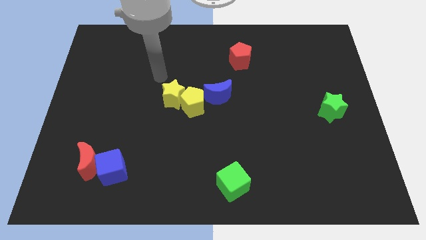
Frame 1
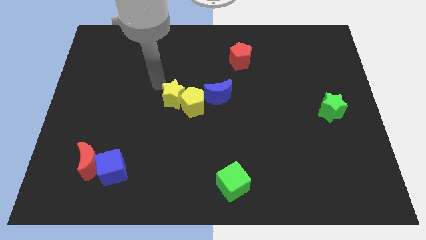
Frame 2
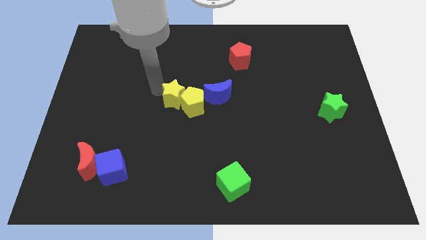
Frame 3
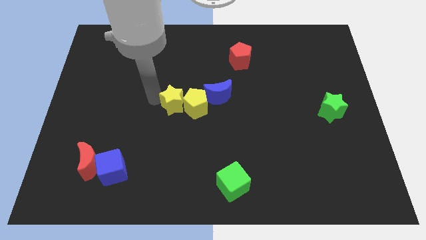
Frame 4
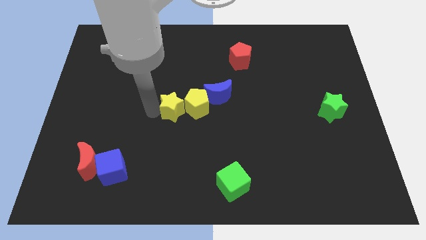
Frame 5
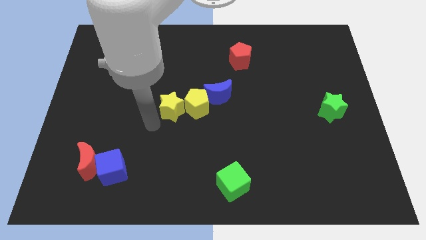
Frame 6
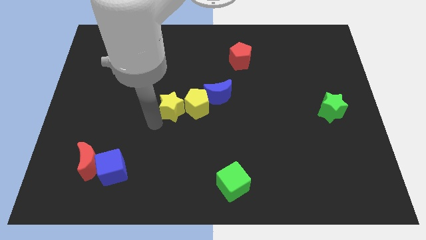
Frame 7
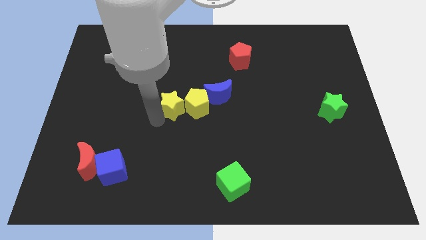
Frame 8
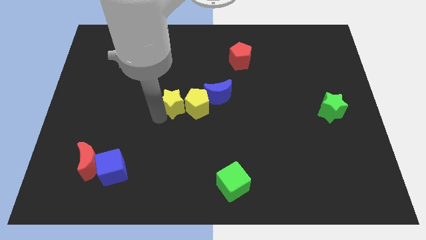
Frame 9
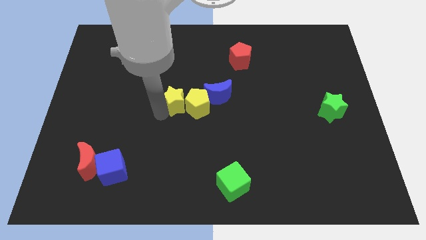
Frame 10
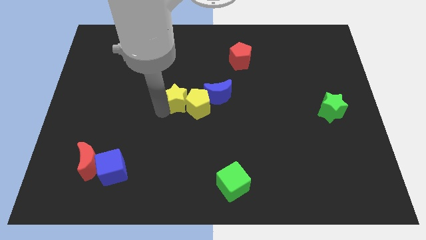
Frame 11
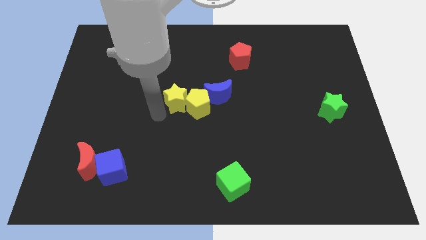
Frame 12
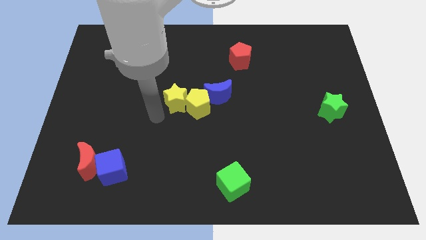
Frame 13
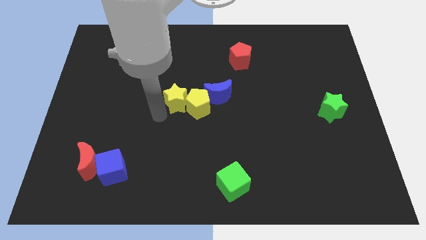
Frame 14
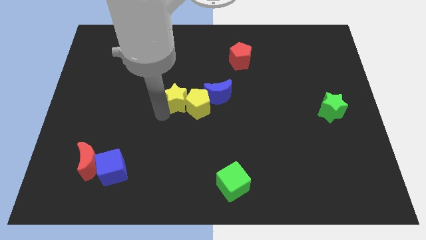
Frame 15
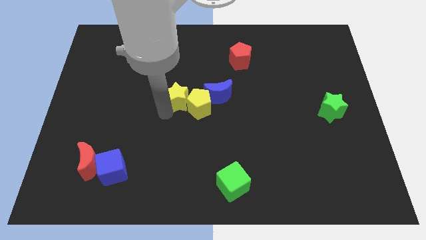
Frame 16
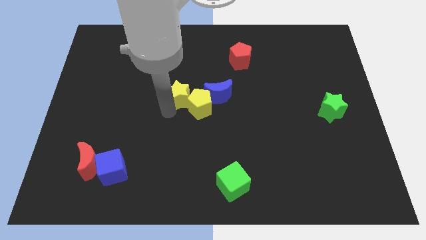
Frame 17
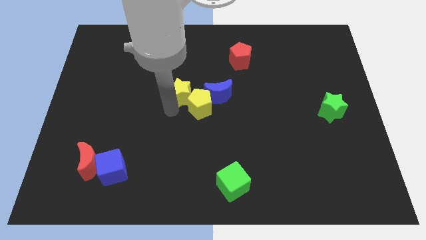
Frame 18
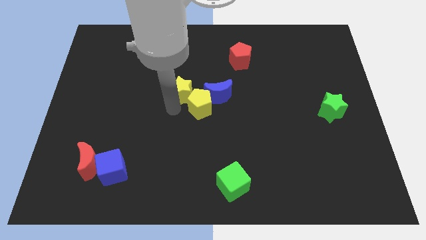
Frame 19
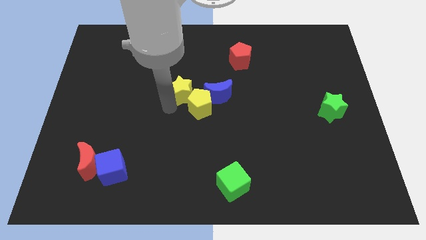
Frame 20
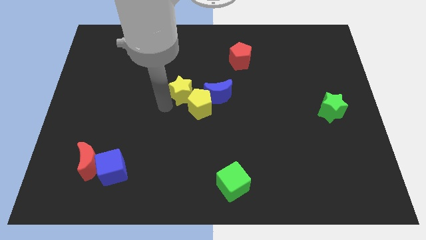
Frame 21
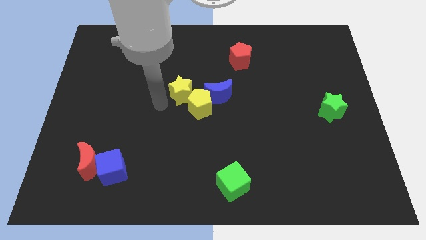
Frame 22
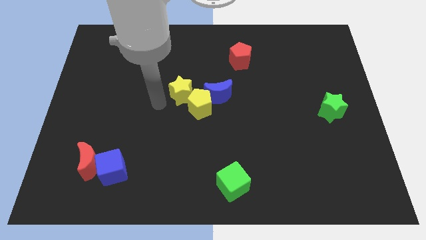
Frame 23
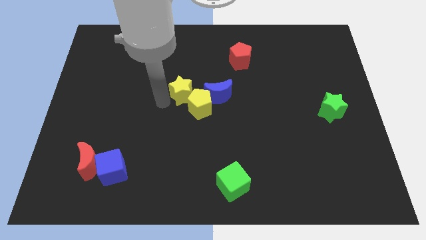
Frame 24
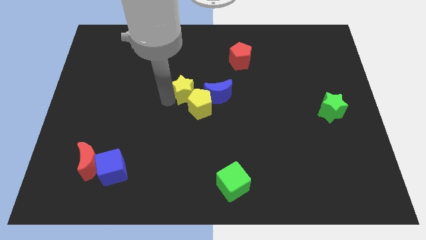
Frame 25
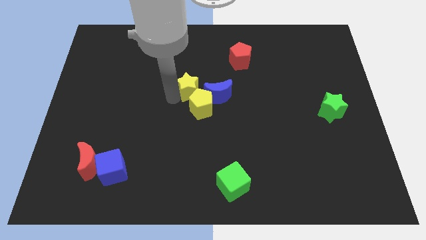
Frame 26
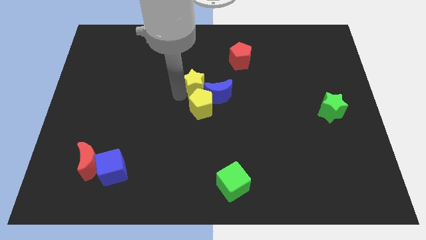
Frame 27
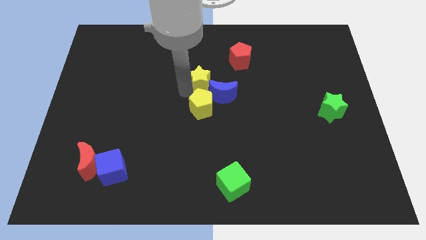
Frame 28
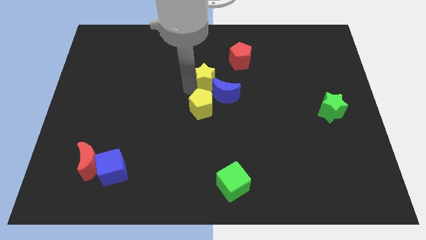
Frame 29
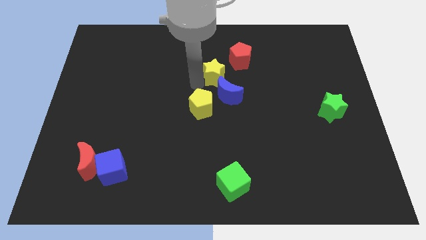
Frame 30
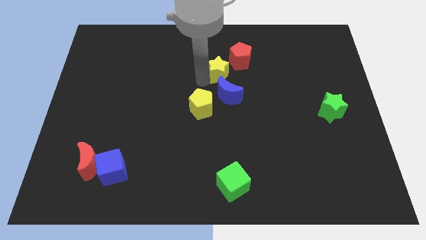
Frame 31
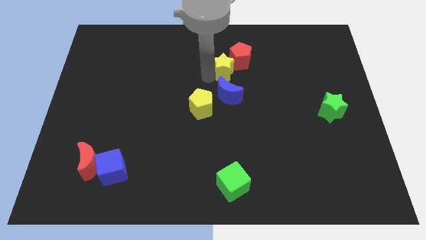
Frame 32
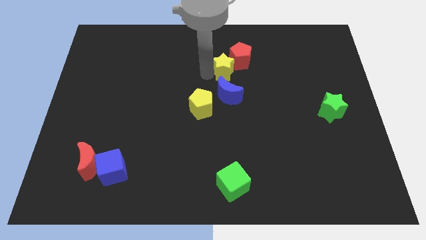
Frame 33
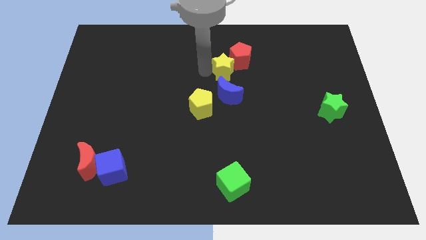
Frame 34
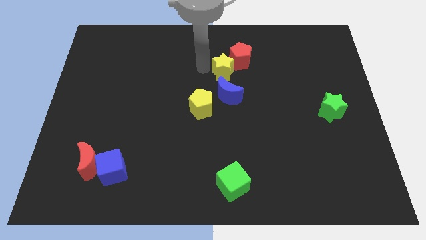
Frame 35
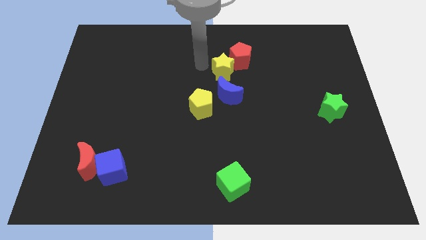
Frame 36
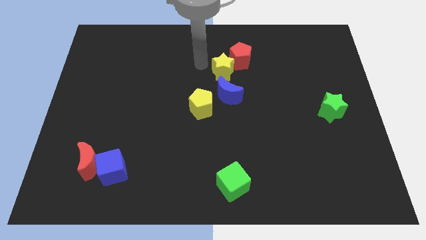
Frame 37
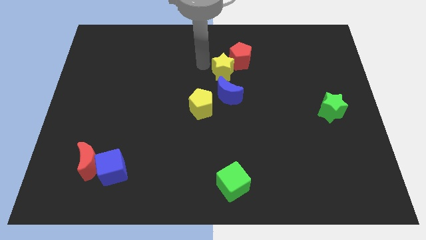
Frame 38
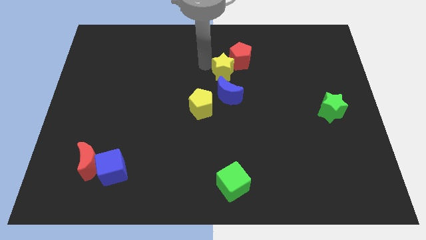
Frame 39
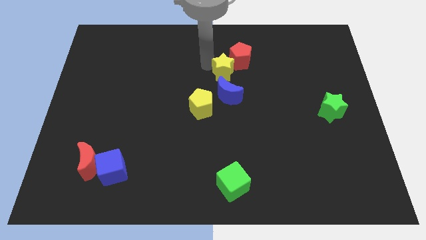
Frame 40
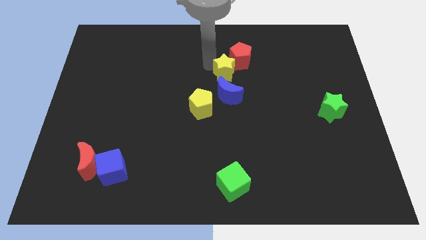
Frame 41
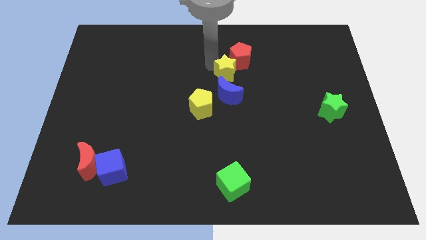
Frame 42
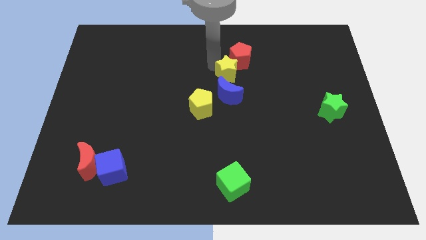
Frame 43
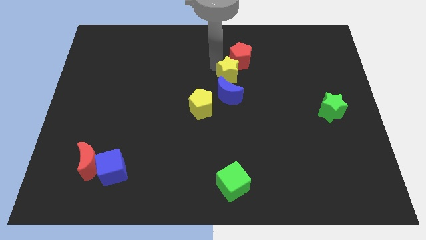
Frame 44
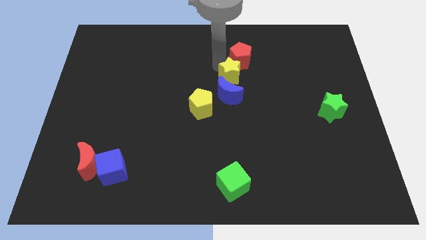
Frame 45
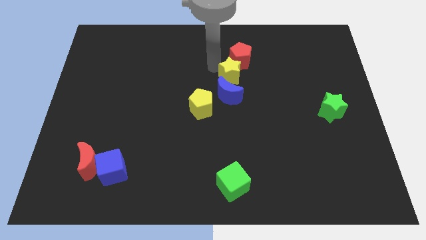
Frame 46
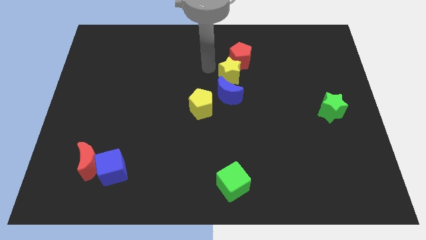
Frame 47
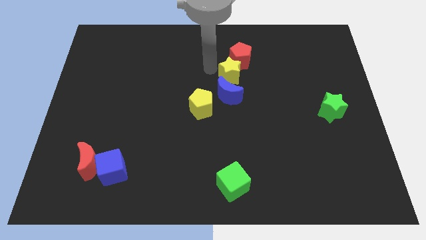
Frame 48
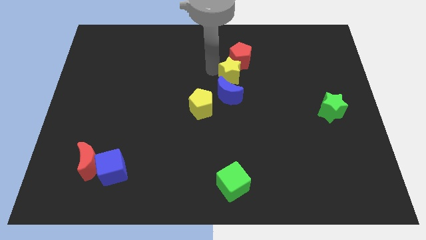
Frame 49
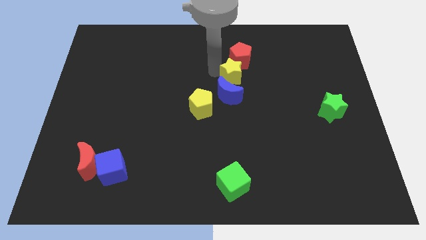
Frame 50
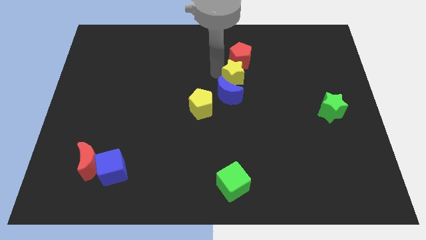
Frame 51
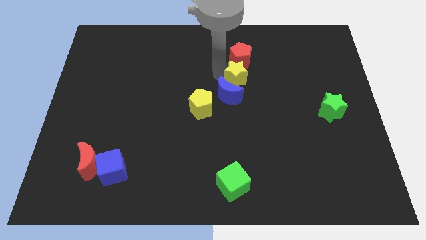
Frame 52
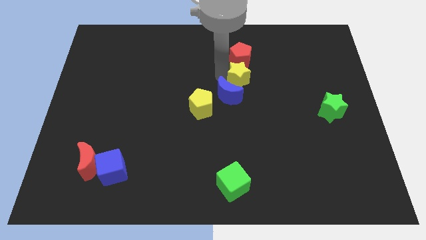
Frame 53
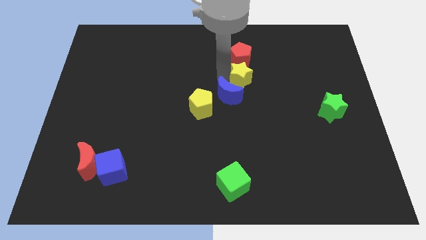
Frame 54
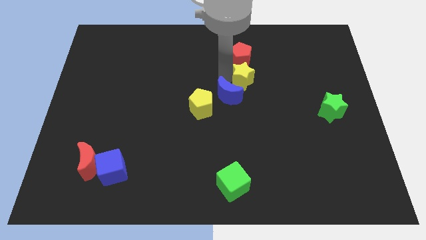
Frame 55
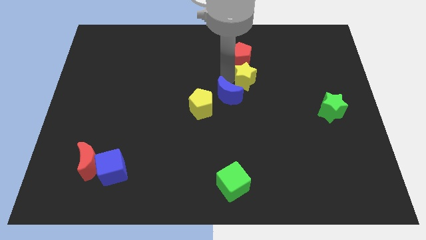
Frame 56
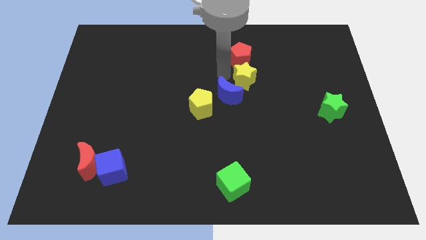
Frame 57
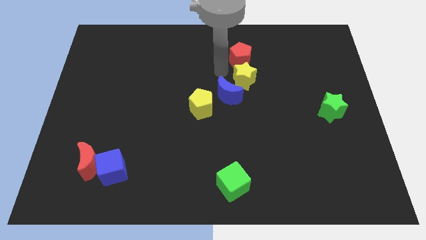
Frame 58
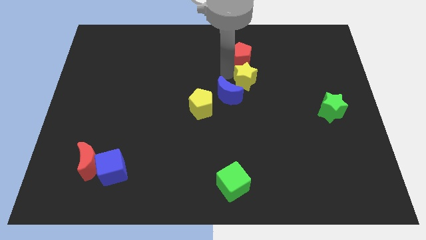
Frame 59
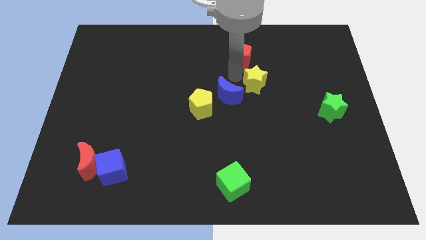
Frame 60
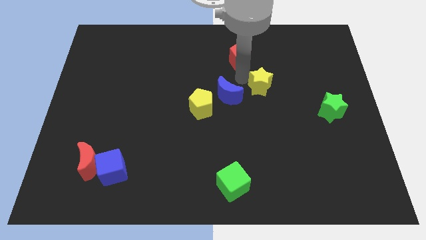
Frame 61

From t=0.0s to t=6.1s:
push the yellow star right

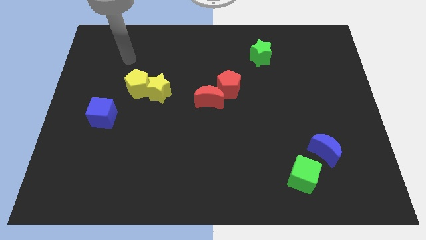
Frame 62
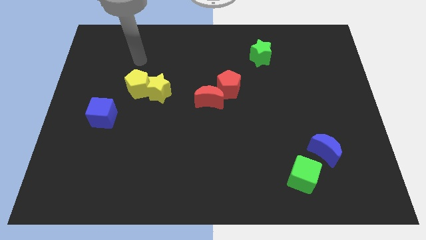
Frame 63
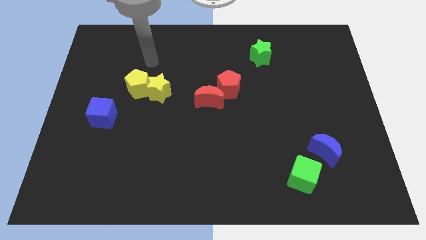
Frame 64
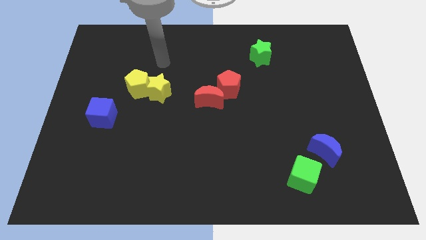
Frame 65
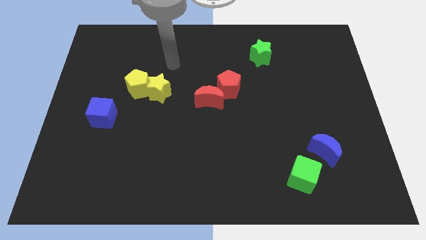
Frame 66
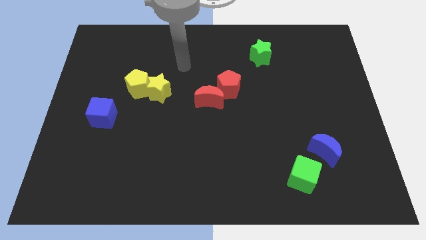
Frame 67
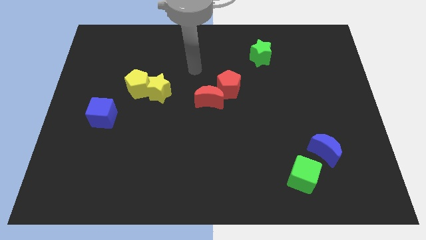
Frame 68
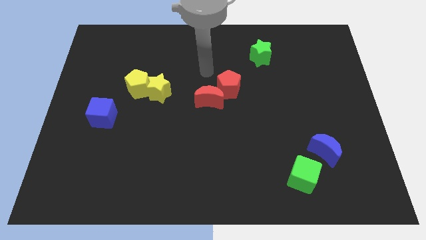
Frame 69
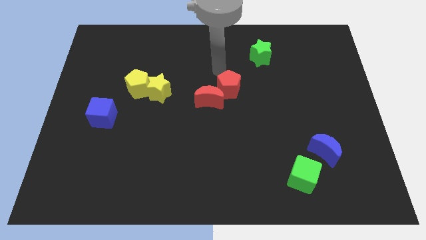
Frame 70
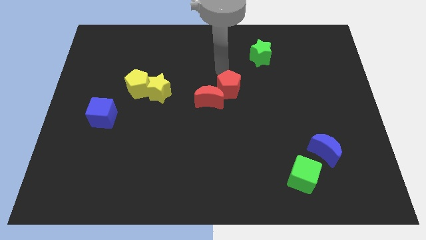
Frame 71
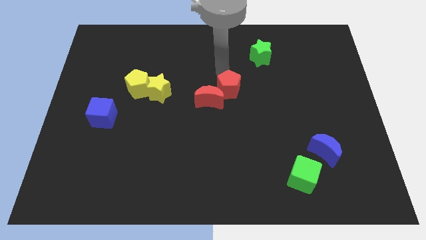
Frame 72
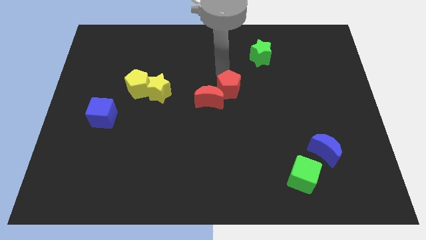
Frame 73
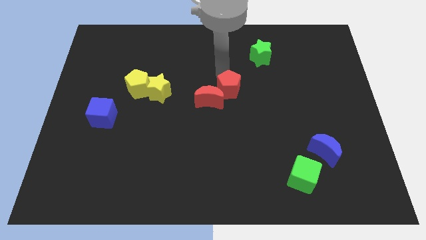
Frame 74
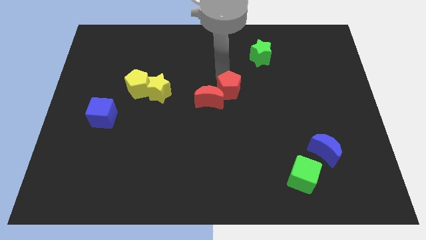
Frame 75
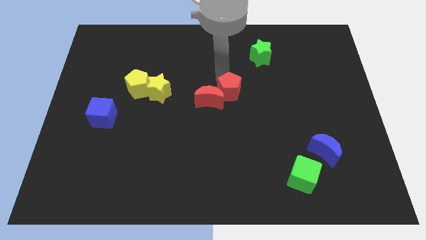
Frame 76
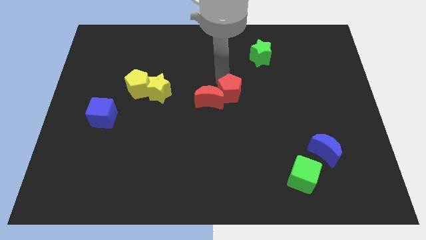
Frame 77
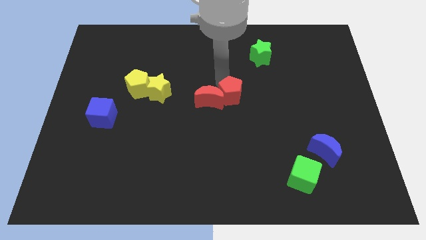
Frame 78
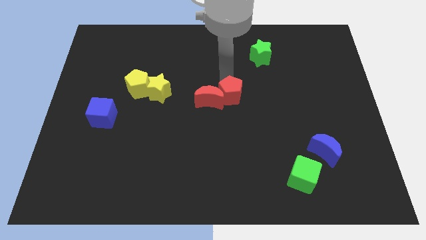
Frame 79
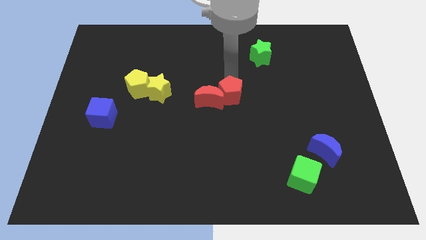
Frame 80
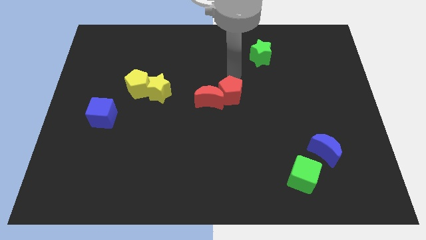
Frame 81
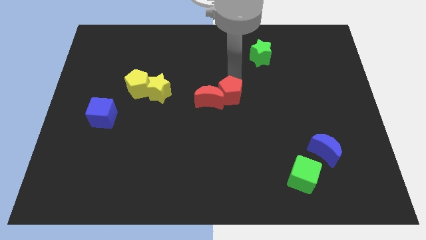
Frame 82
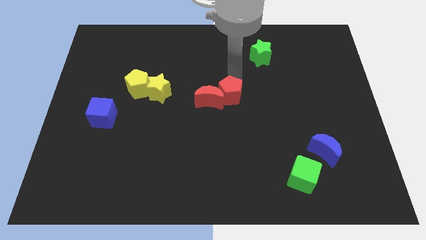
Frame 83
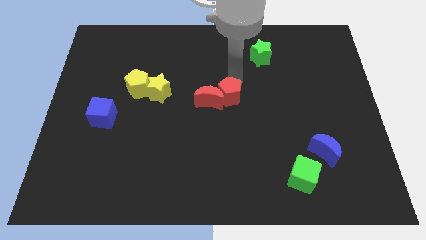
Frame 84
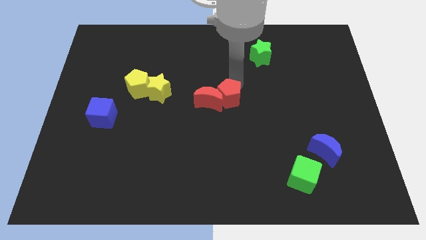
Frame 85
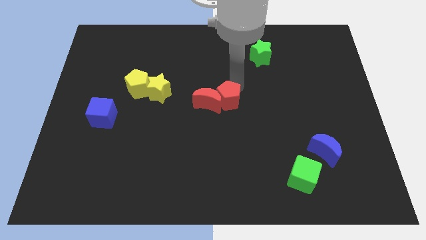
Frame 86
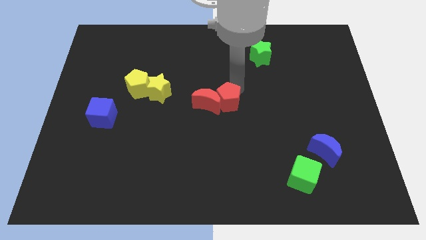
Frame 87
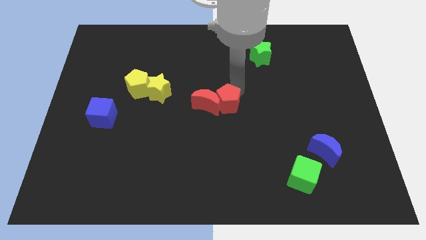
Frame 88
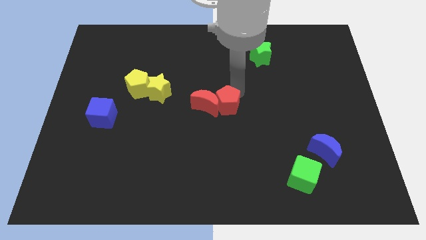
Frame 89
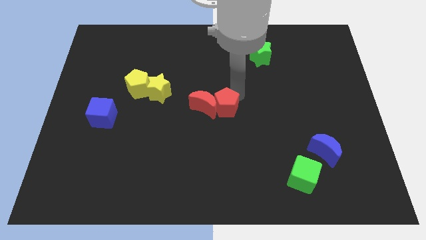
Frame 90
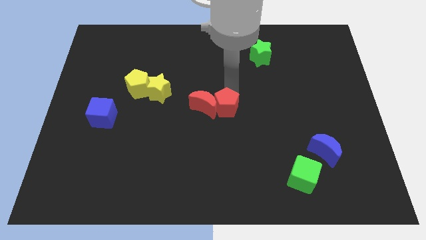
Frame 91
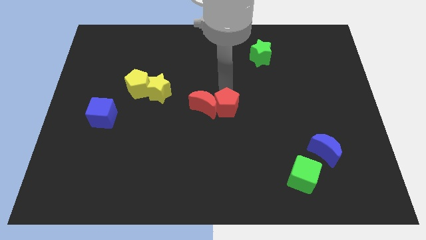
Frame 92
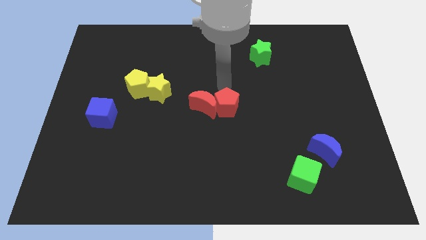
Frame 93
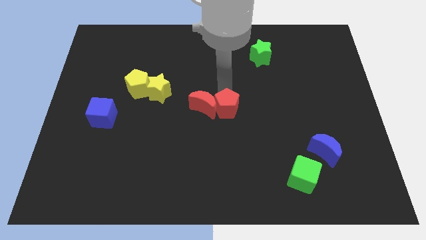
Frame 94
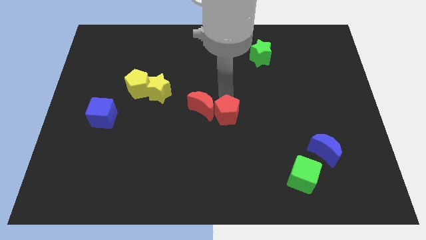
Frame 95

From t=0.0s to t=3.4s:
slightly move the red pentagon downwards
